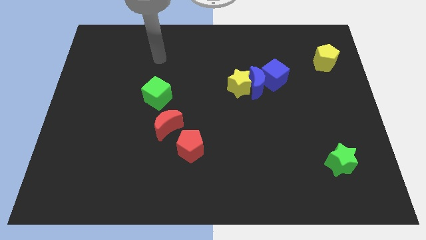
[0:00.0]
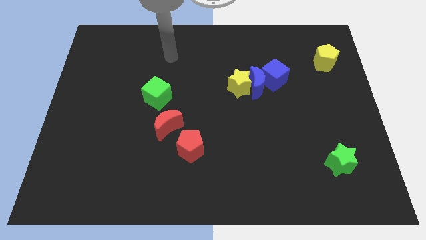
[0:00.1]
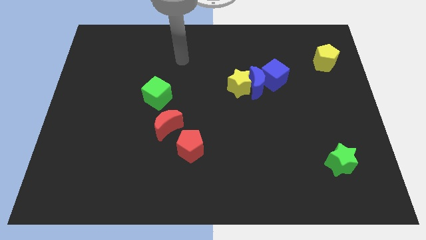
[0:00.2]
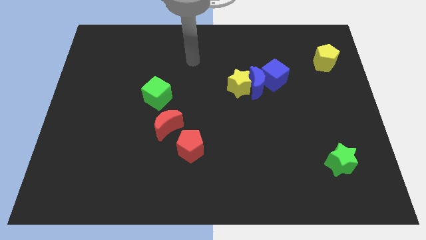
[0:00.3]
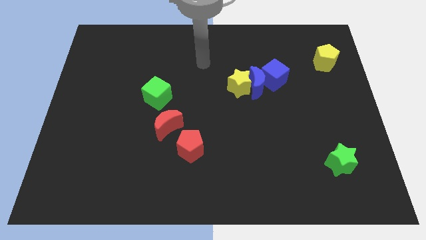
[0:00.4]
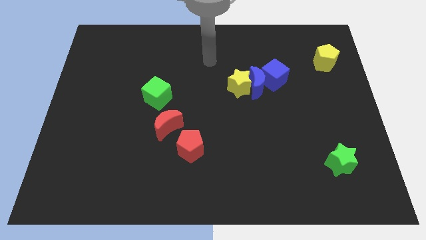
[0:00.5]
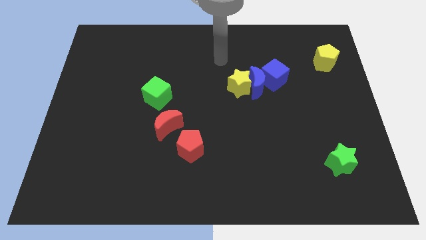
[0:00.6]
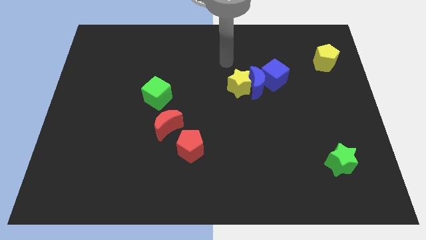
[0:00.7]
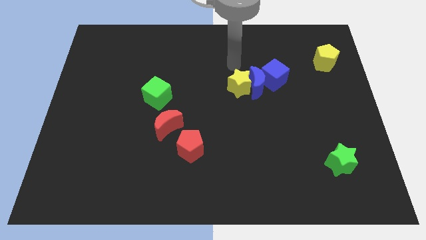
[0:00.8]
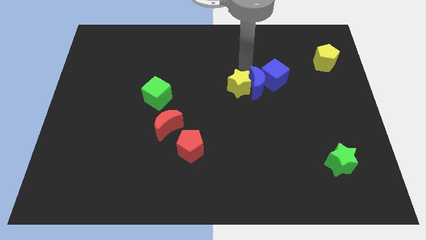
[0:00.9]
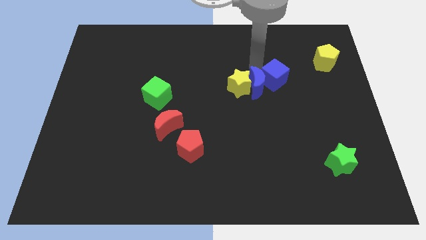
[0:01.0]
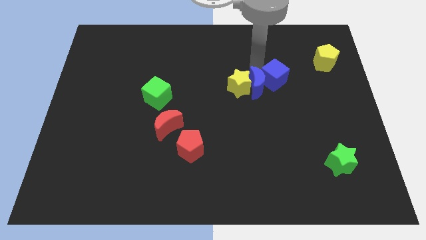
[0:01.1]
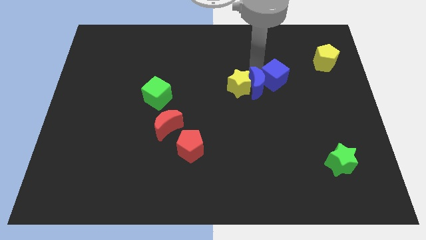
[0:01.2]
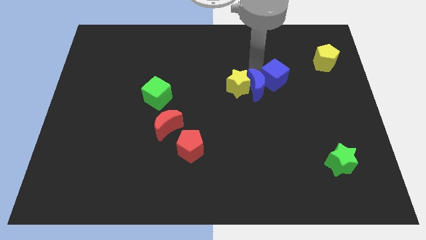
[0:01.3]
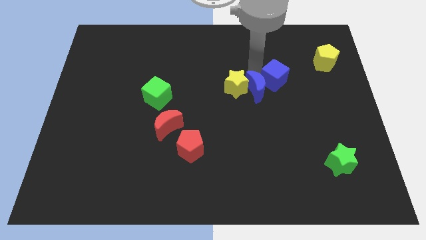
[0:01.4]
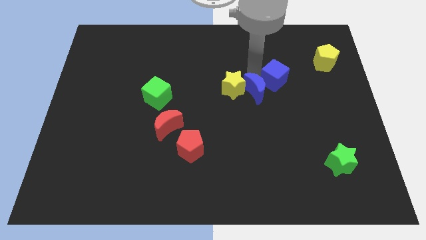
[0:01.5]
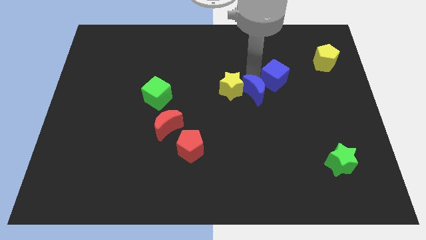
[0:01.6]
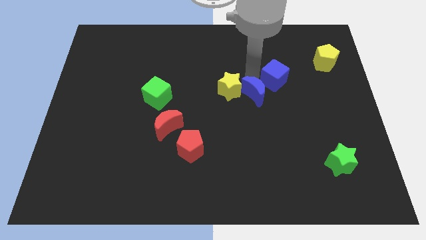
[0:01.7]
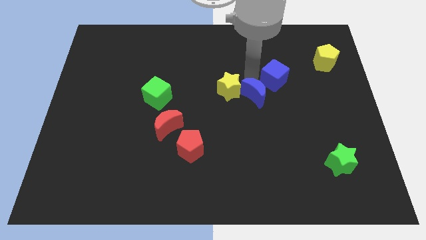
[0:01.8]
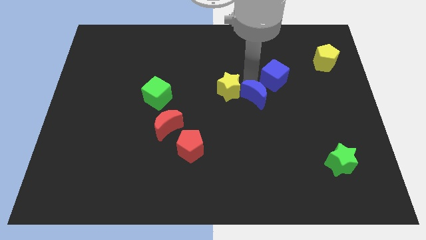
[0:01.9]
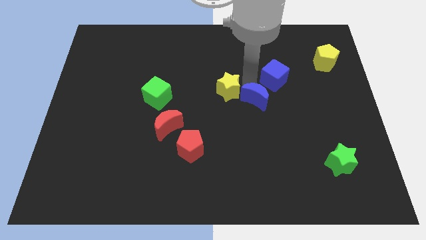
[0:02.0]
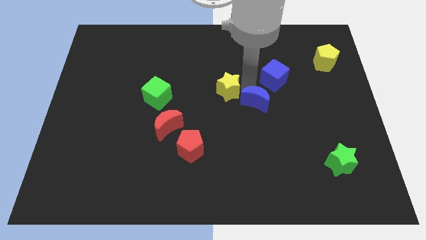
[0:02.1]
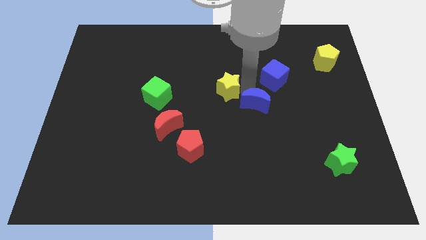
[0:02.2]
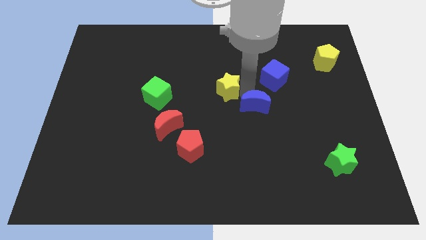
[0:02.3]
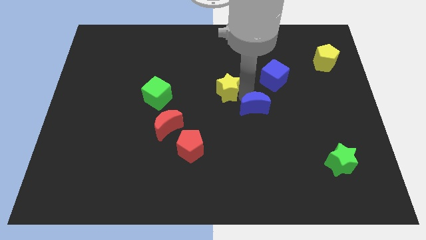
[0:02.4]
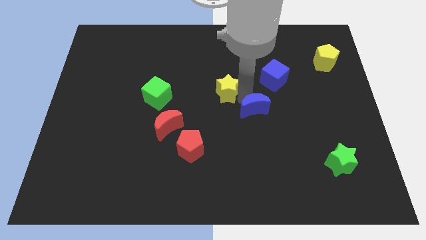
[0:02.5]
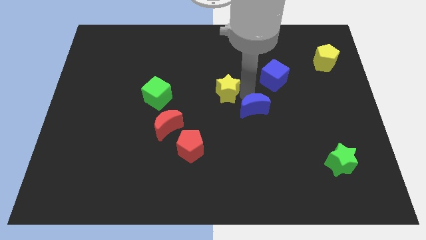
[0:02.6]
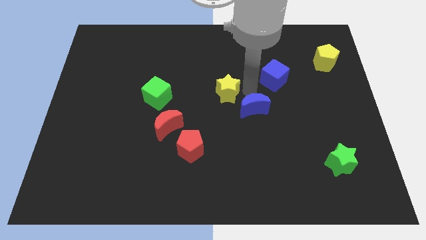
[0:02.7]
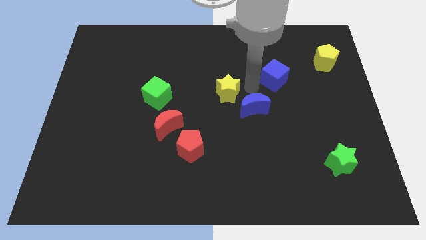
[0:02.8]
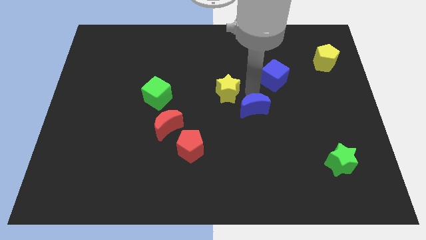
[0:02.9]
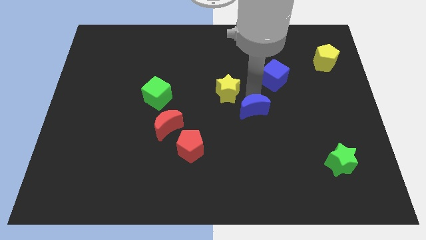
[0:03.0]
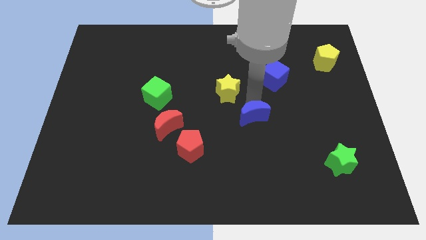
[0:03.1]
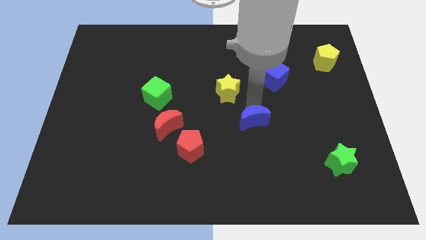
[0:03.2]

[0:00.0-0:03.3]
move the blue moon away from the yellow star and blue cube

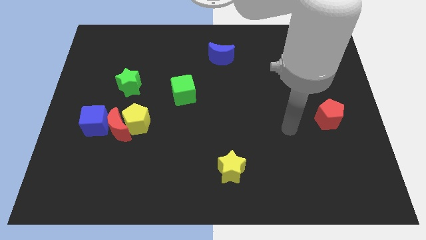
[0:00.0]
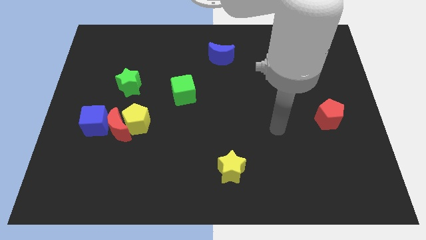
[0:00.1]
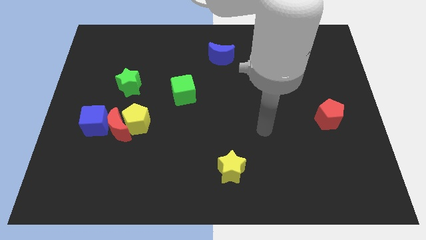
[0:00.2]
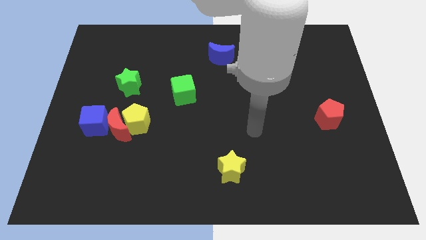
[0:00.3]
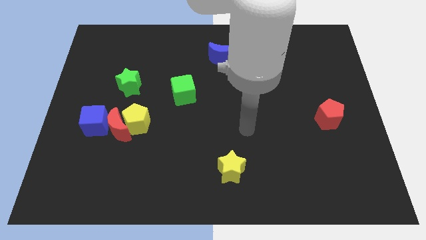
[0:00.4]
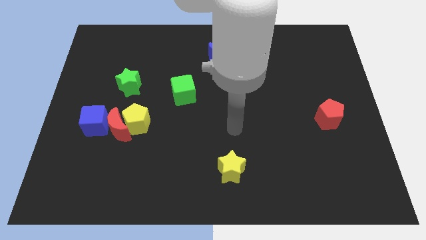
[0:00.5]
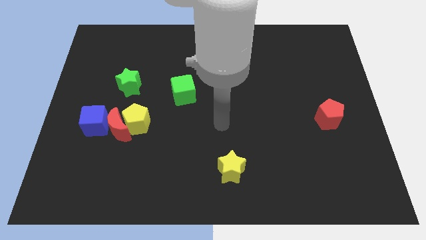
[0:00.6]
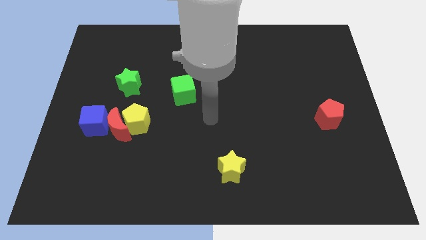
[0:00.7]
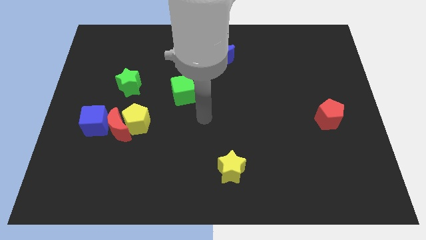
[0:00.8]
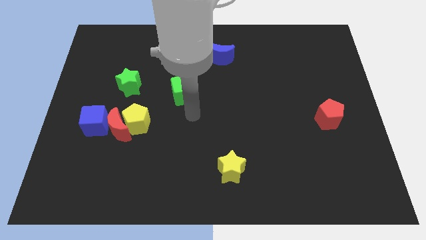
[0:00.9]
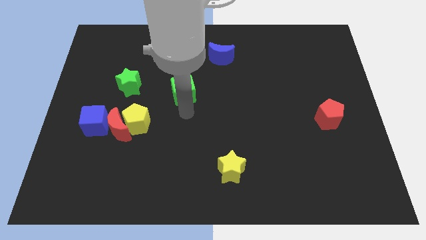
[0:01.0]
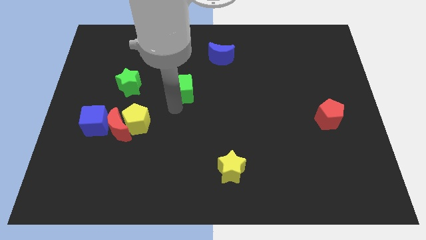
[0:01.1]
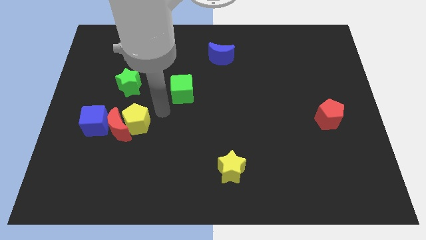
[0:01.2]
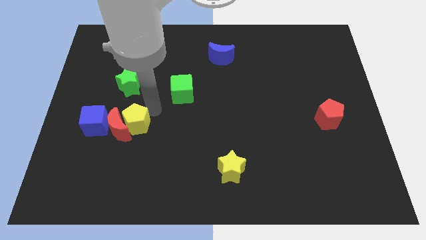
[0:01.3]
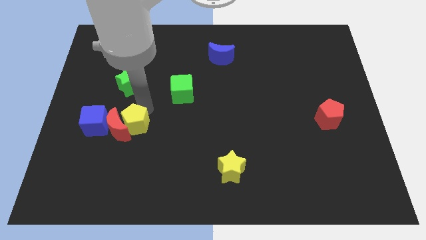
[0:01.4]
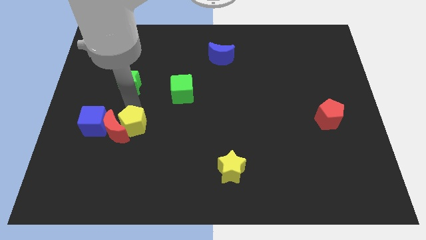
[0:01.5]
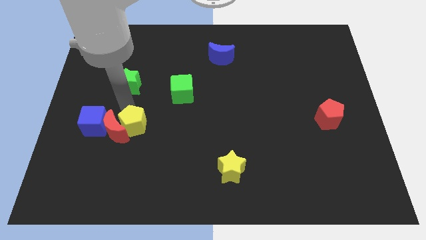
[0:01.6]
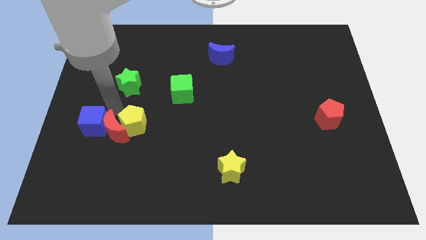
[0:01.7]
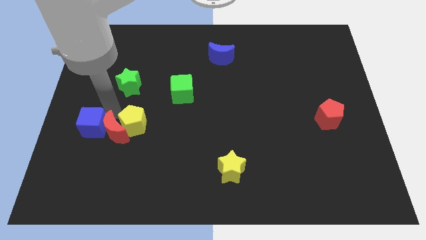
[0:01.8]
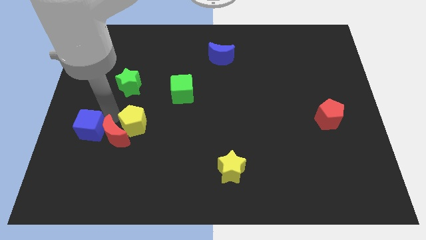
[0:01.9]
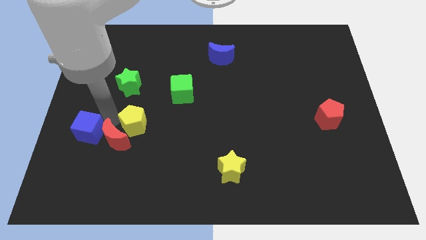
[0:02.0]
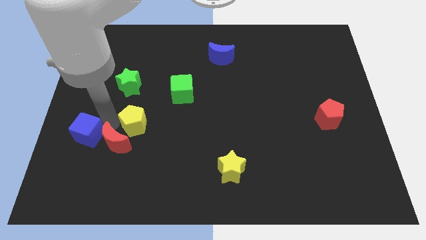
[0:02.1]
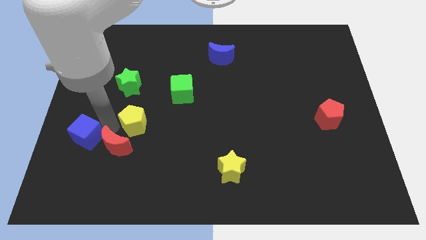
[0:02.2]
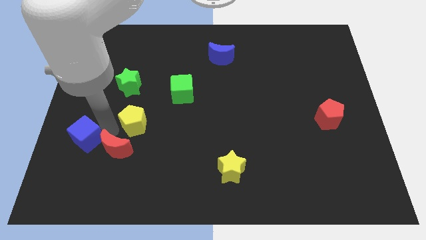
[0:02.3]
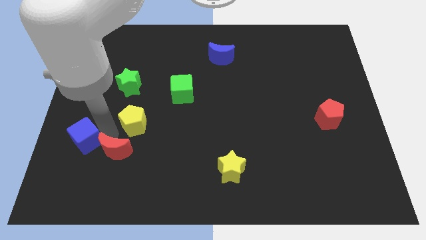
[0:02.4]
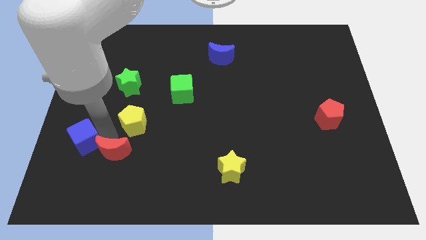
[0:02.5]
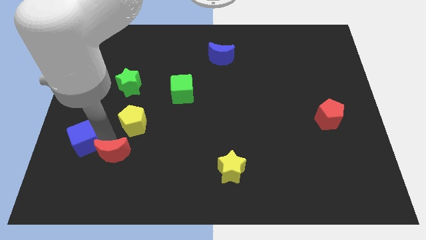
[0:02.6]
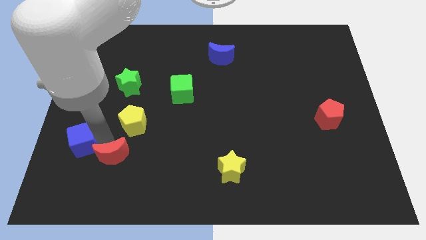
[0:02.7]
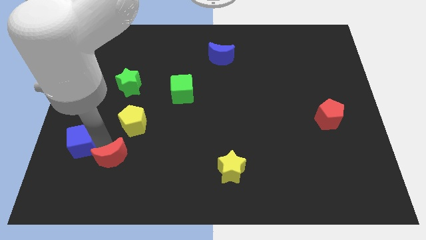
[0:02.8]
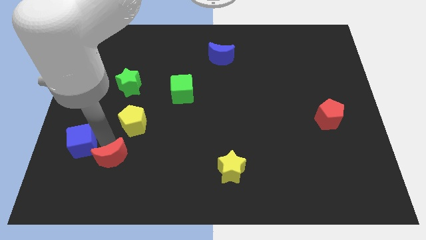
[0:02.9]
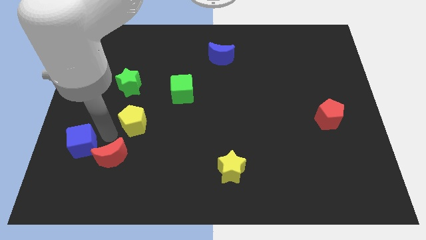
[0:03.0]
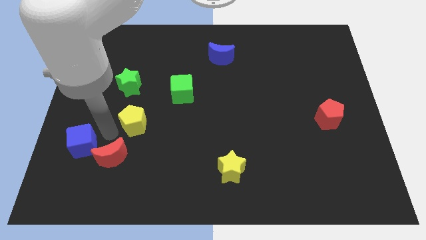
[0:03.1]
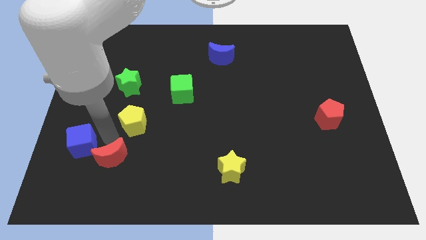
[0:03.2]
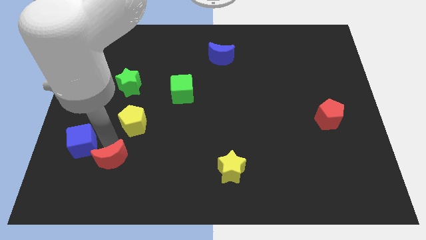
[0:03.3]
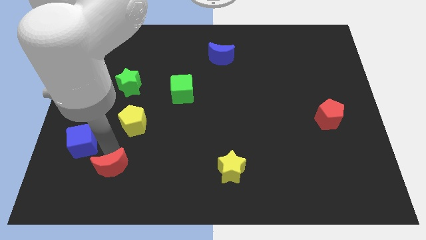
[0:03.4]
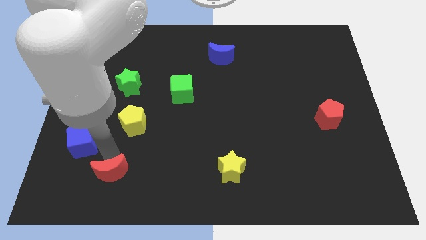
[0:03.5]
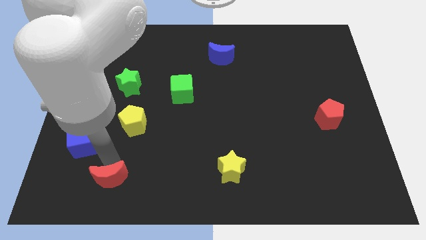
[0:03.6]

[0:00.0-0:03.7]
separate the red moon from the yellow pentagon and blue cube

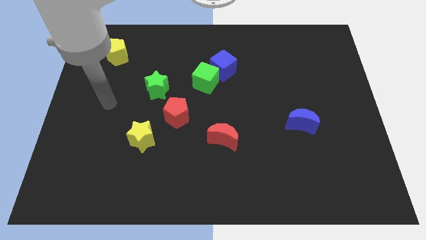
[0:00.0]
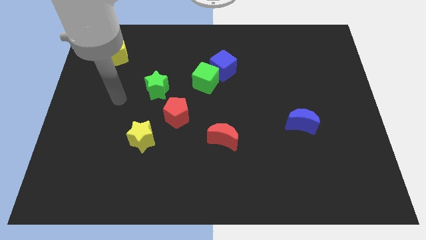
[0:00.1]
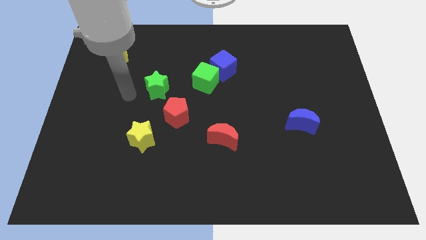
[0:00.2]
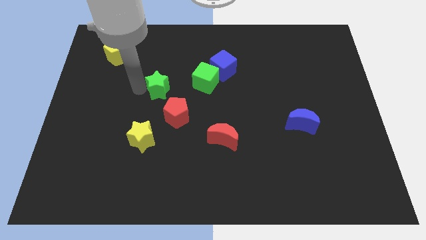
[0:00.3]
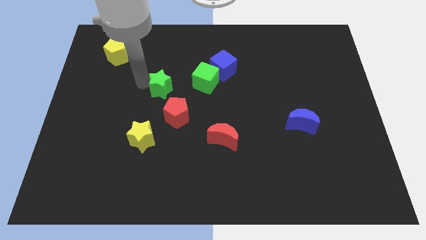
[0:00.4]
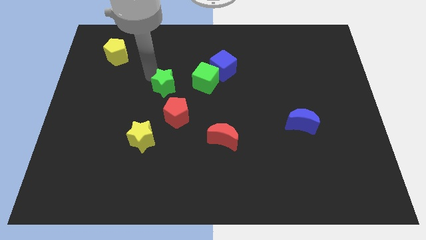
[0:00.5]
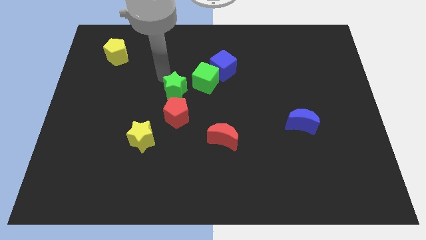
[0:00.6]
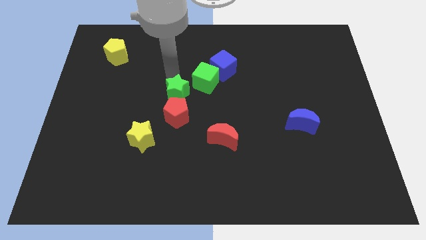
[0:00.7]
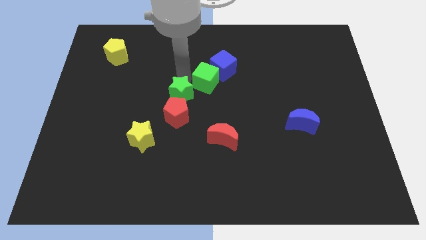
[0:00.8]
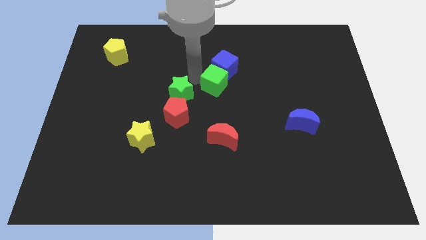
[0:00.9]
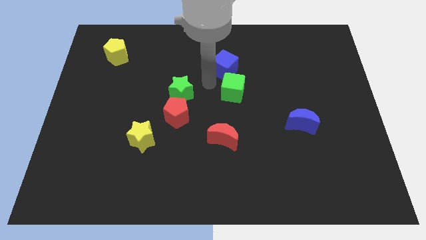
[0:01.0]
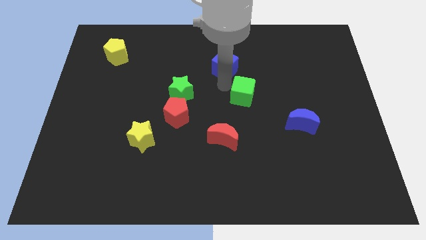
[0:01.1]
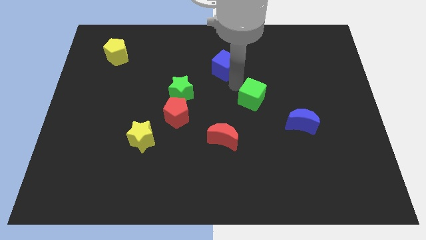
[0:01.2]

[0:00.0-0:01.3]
pull the blue cube apart from the green cube

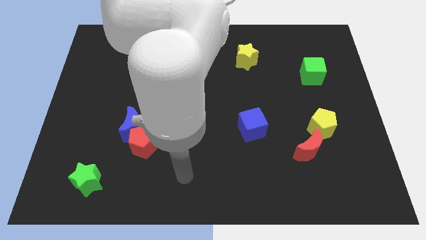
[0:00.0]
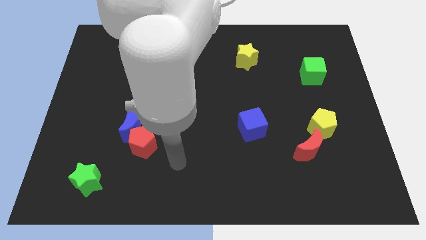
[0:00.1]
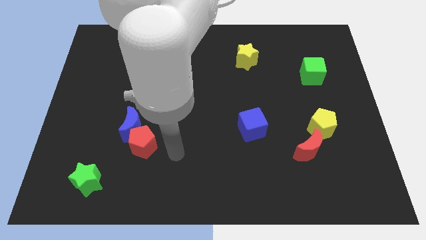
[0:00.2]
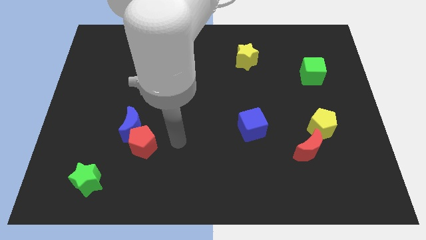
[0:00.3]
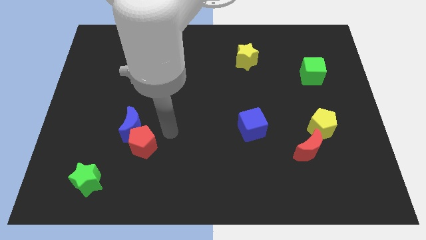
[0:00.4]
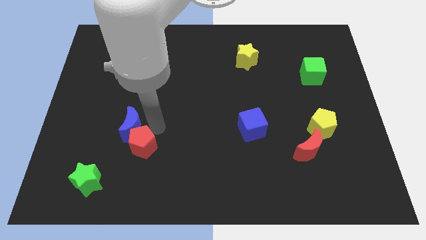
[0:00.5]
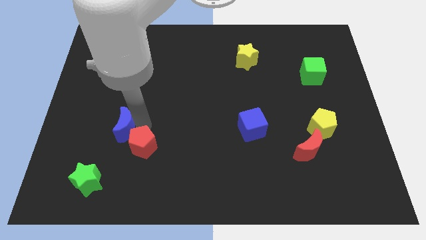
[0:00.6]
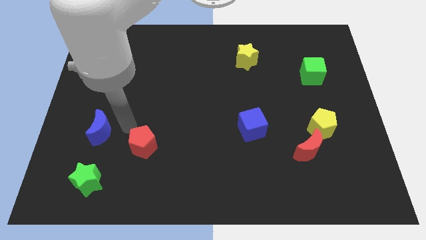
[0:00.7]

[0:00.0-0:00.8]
move the red pentagon away from the blue moon

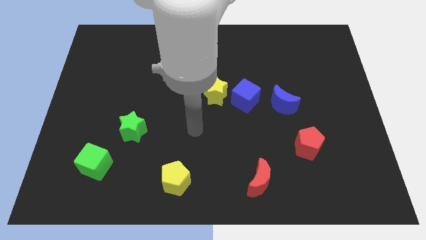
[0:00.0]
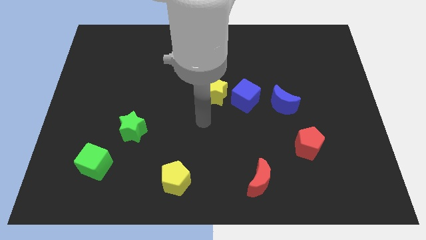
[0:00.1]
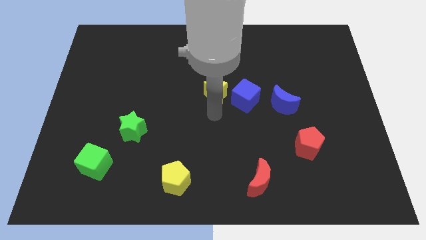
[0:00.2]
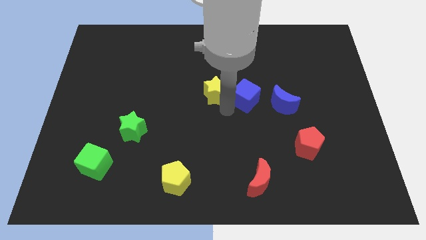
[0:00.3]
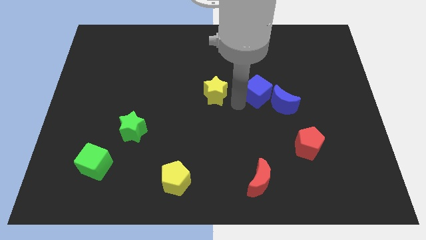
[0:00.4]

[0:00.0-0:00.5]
move the yellow star away from the blue cube
